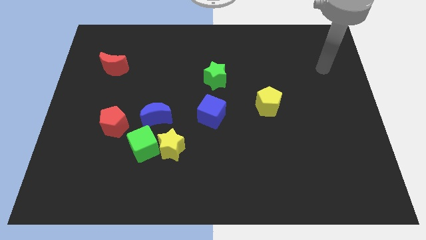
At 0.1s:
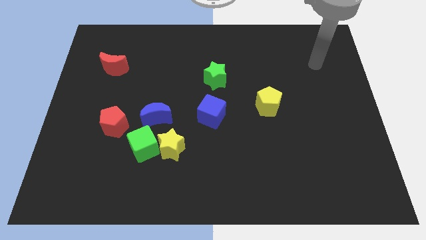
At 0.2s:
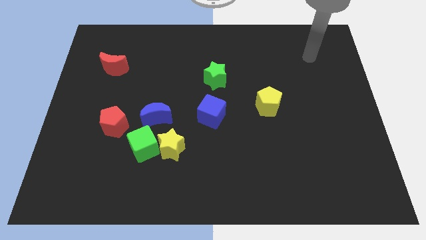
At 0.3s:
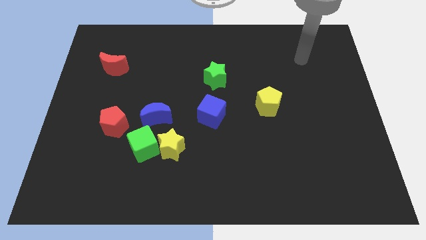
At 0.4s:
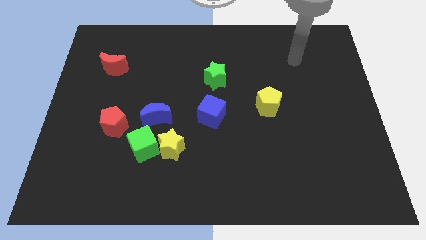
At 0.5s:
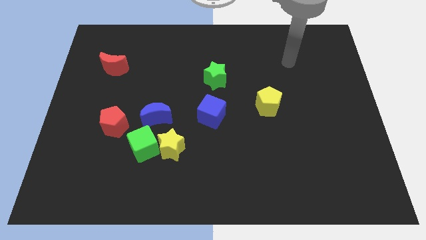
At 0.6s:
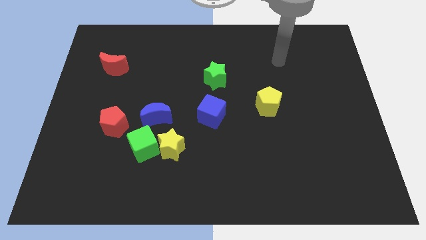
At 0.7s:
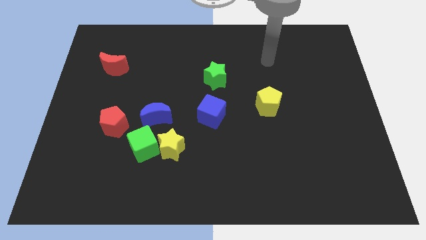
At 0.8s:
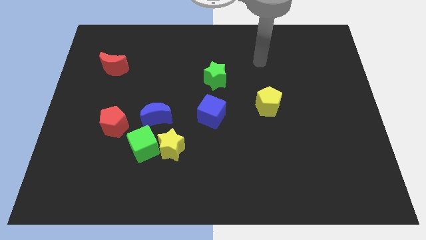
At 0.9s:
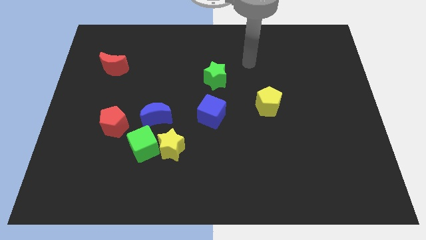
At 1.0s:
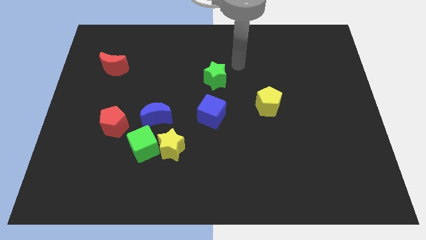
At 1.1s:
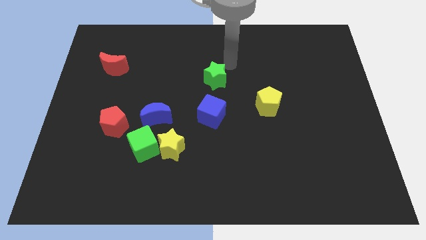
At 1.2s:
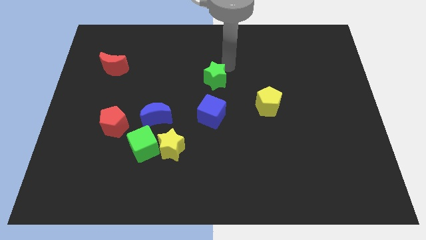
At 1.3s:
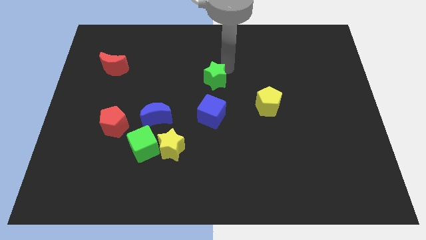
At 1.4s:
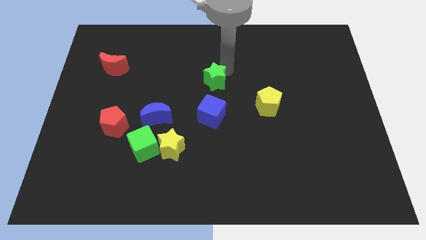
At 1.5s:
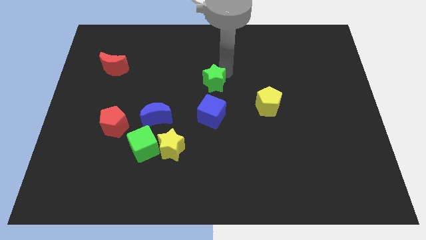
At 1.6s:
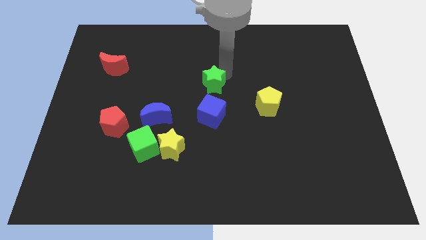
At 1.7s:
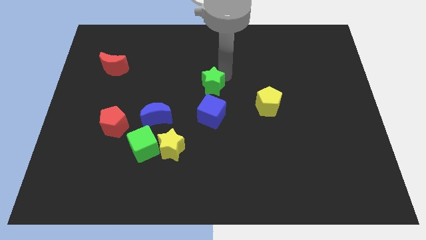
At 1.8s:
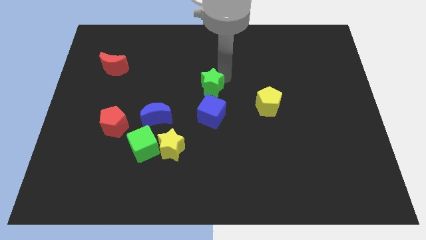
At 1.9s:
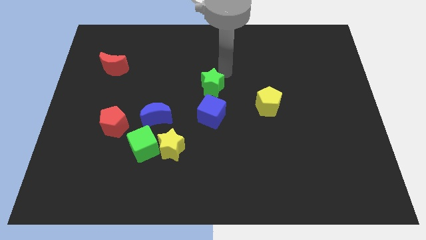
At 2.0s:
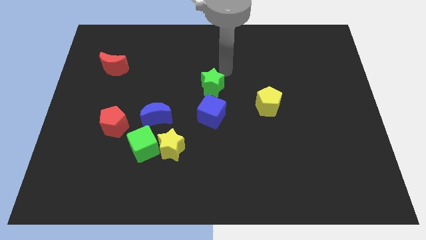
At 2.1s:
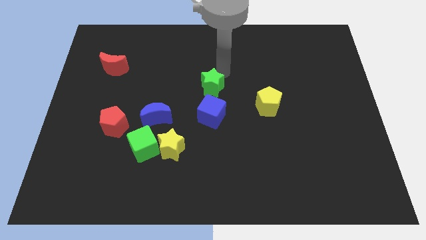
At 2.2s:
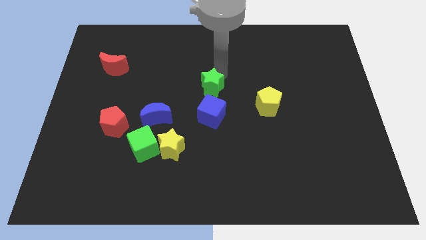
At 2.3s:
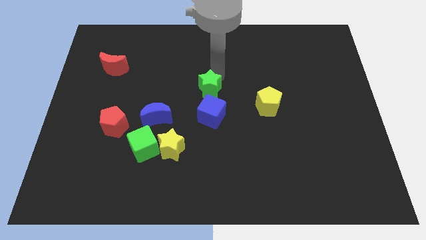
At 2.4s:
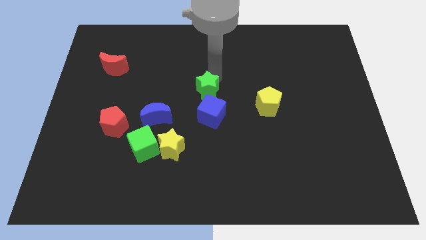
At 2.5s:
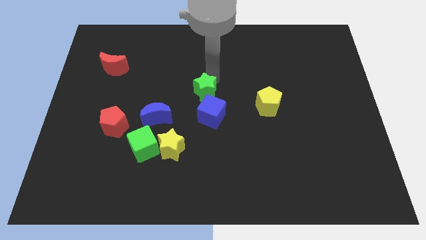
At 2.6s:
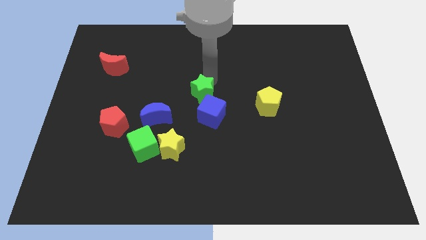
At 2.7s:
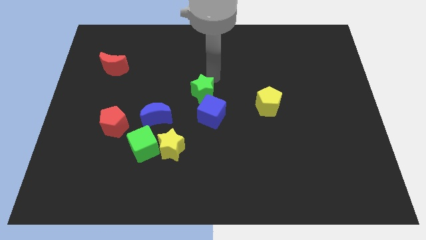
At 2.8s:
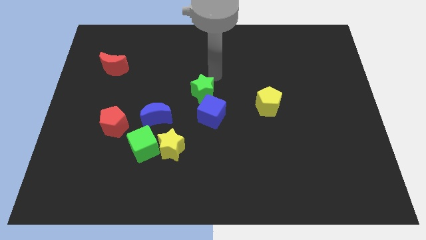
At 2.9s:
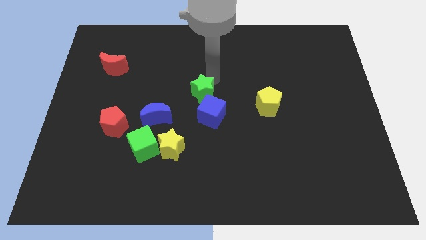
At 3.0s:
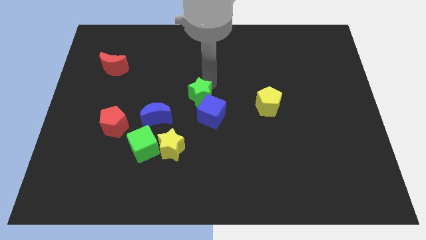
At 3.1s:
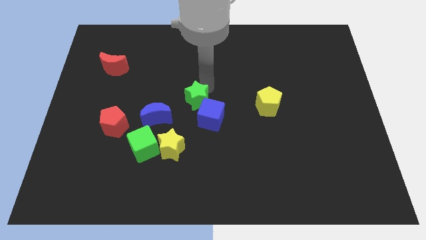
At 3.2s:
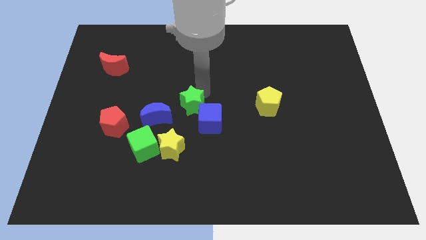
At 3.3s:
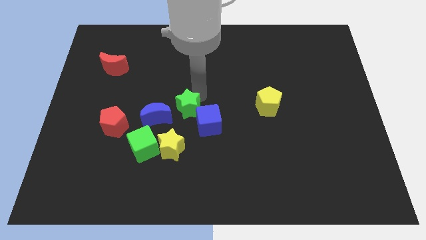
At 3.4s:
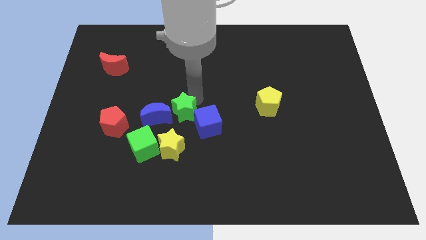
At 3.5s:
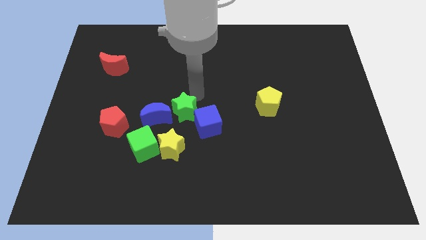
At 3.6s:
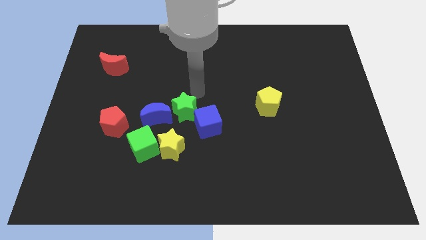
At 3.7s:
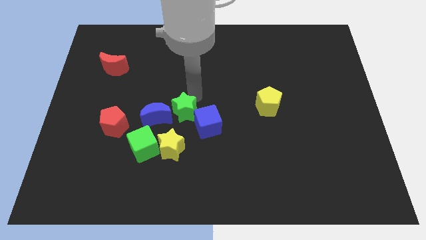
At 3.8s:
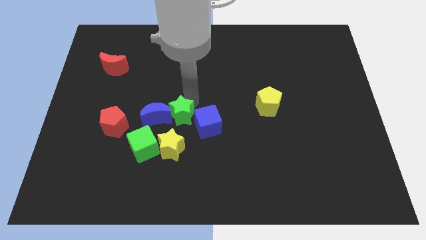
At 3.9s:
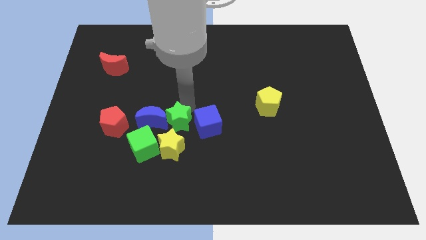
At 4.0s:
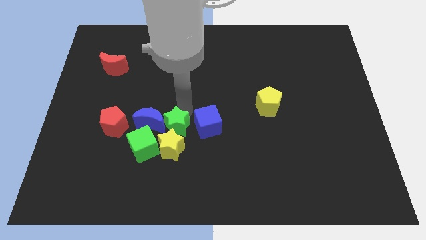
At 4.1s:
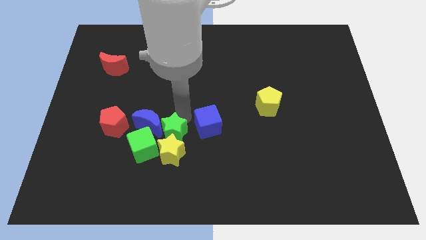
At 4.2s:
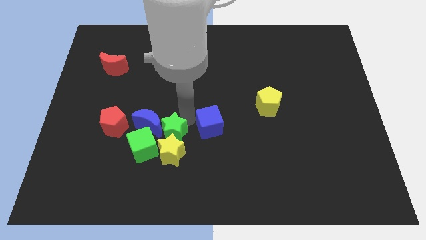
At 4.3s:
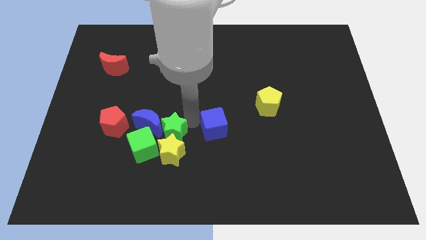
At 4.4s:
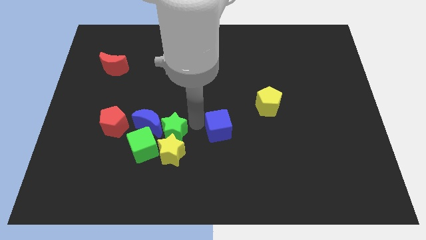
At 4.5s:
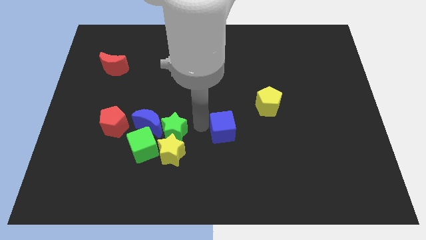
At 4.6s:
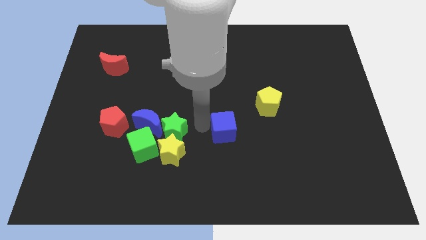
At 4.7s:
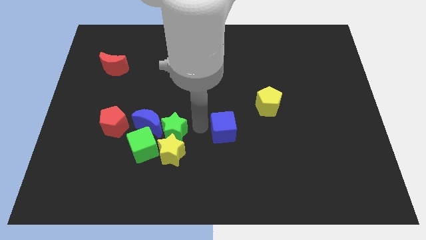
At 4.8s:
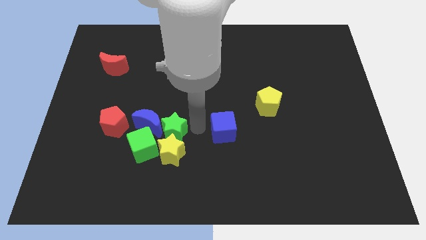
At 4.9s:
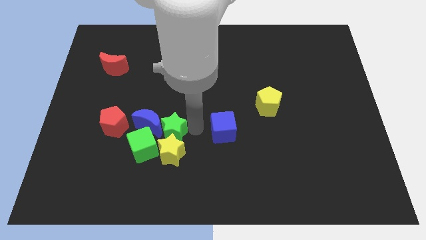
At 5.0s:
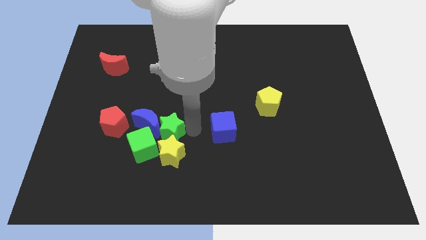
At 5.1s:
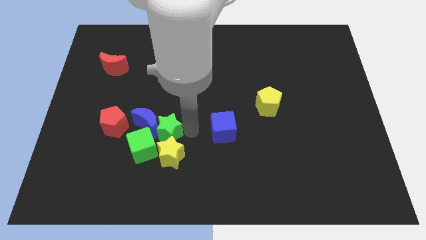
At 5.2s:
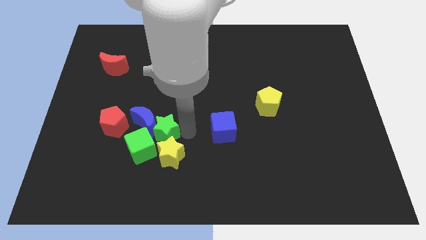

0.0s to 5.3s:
move the green star next to the green cube

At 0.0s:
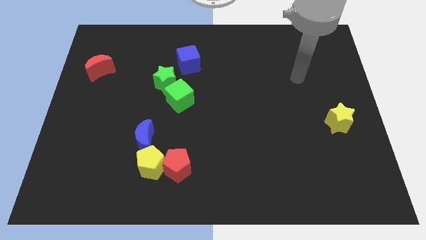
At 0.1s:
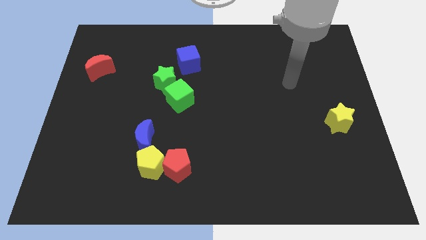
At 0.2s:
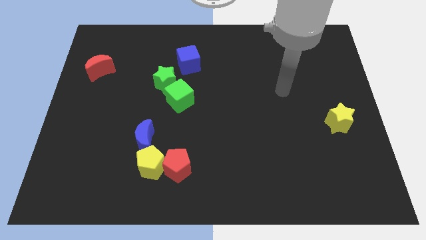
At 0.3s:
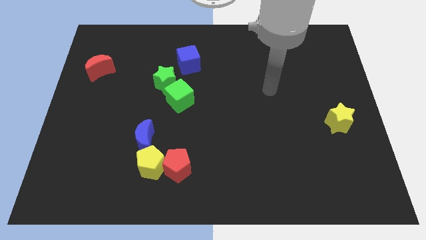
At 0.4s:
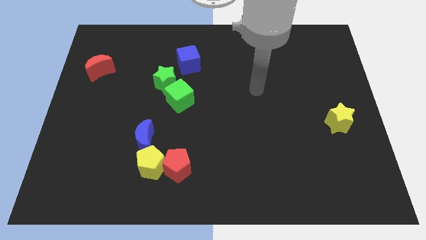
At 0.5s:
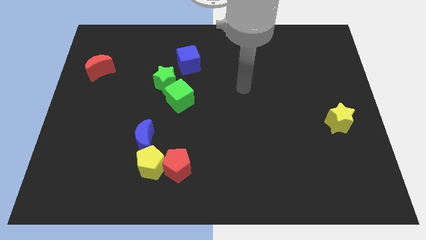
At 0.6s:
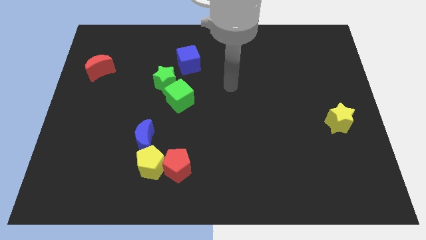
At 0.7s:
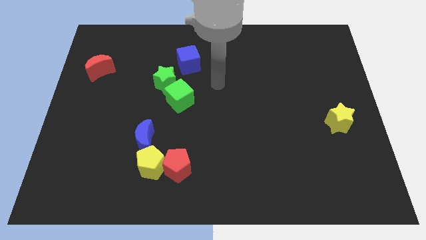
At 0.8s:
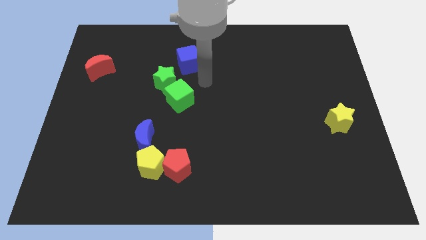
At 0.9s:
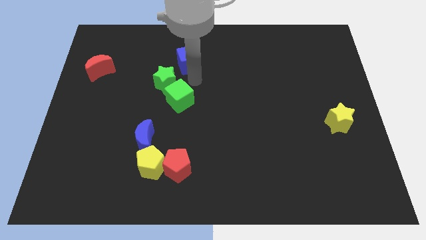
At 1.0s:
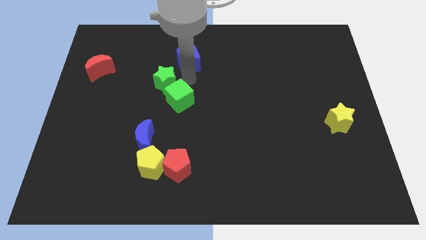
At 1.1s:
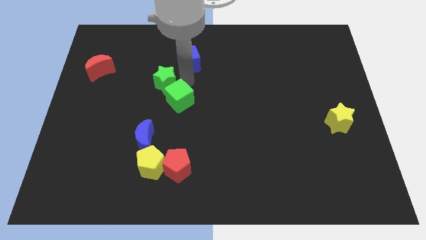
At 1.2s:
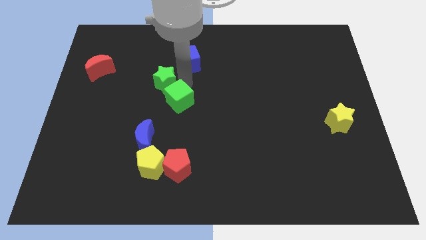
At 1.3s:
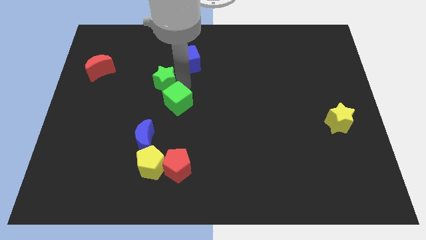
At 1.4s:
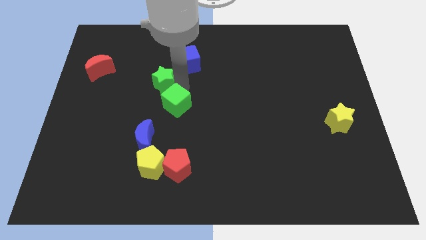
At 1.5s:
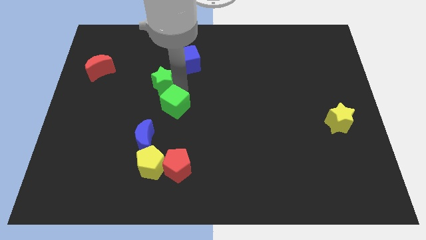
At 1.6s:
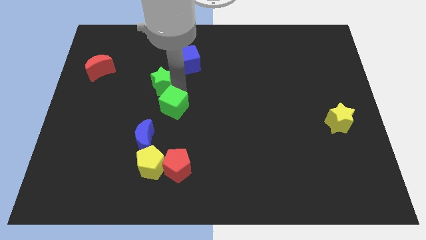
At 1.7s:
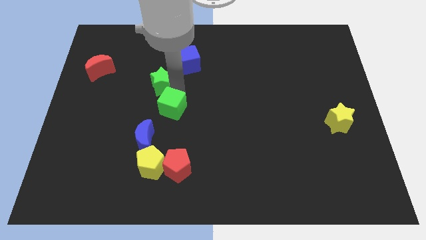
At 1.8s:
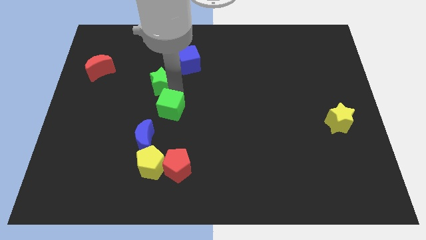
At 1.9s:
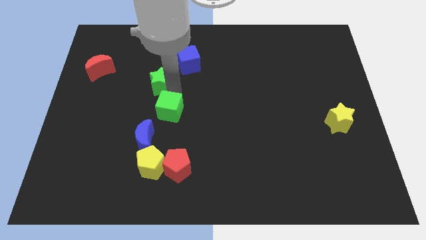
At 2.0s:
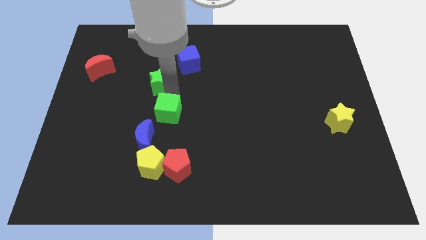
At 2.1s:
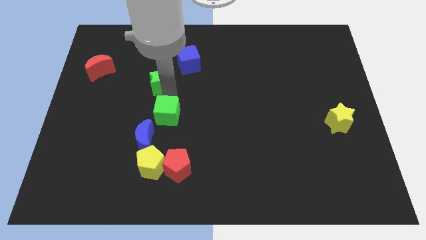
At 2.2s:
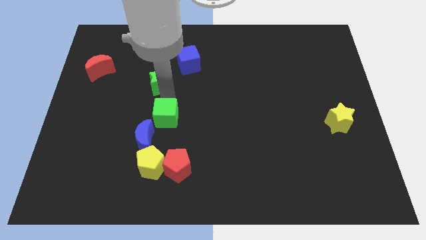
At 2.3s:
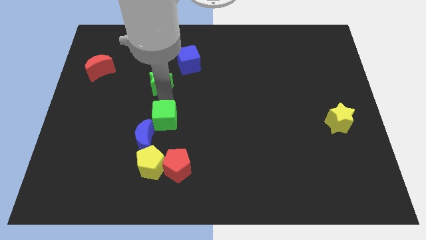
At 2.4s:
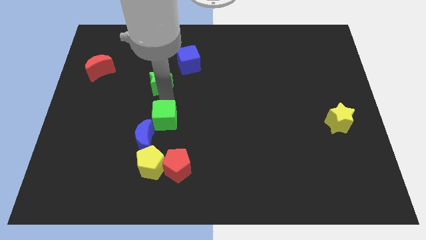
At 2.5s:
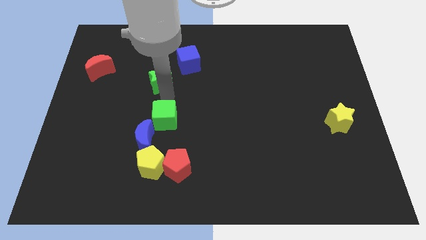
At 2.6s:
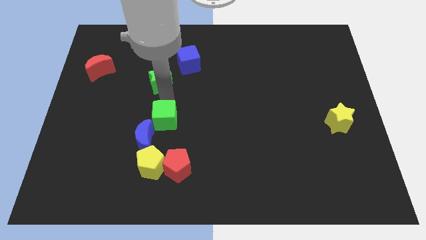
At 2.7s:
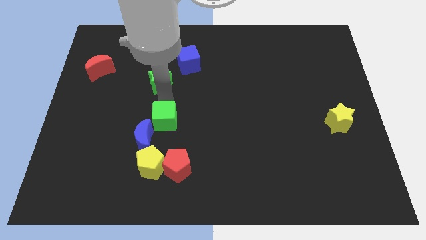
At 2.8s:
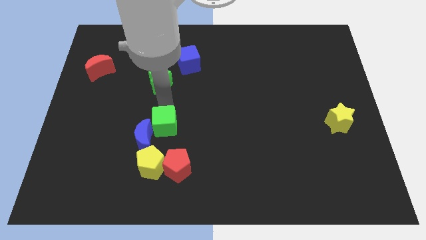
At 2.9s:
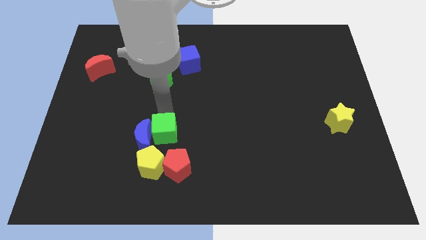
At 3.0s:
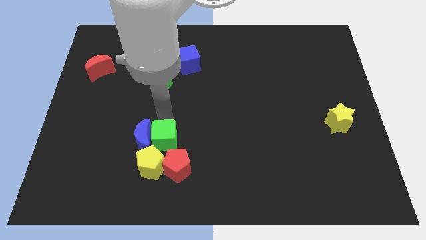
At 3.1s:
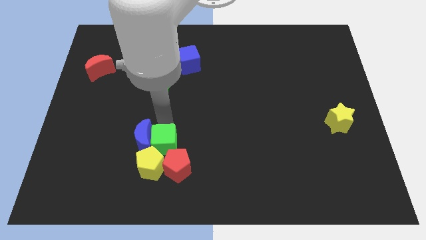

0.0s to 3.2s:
put the green cube to the yellow pentagon
